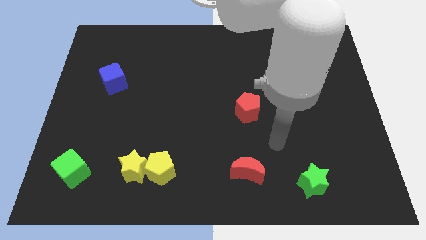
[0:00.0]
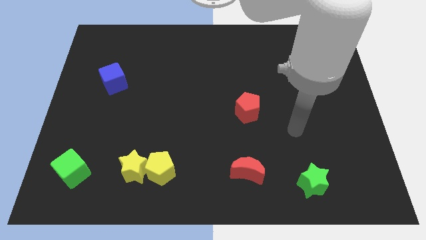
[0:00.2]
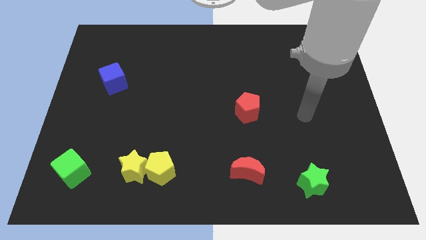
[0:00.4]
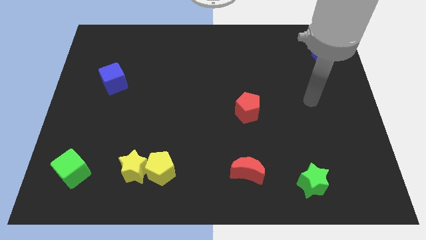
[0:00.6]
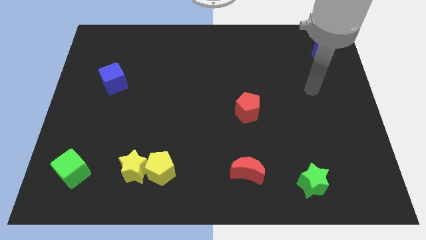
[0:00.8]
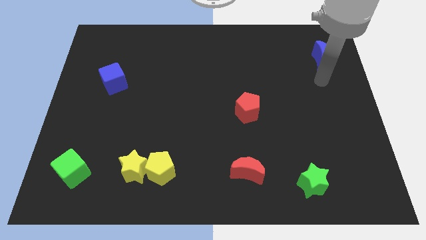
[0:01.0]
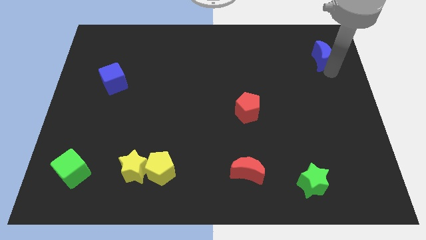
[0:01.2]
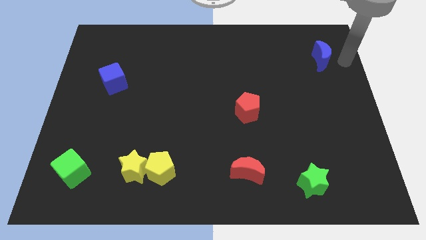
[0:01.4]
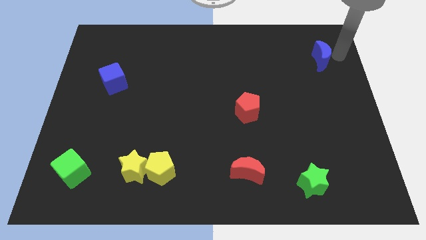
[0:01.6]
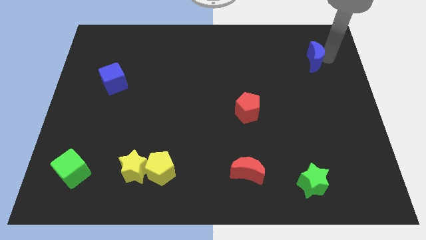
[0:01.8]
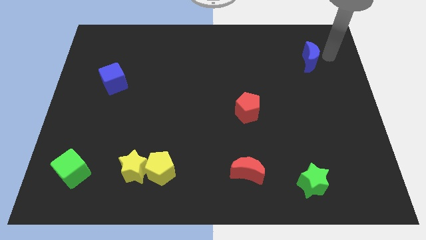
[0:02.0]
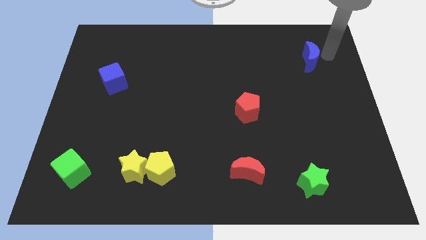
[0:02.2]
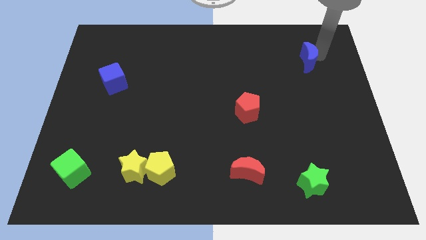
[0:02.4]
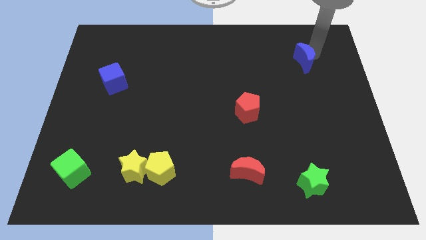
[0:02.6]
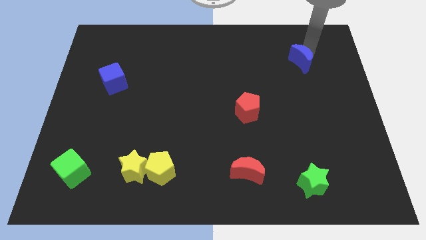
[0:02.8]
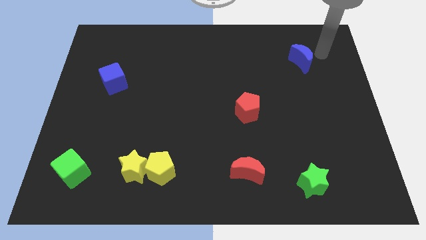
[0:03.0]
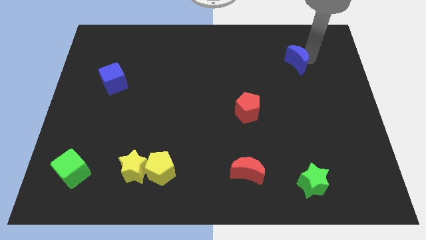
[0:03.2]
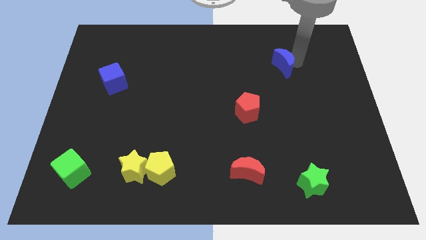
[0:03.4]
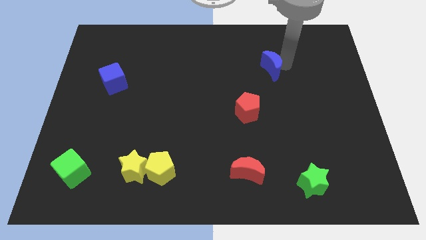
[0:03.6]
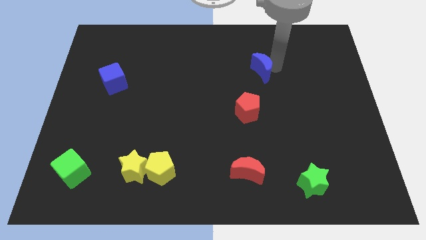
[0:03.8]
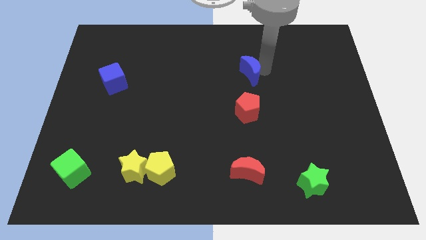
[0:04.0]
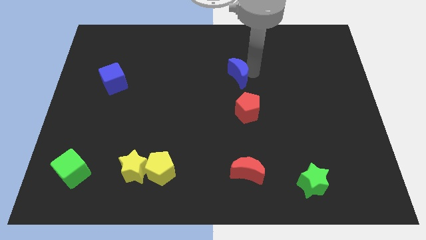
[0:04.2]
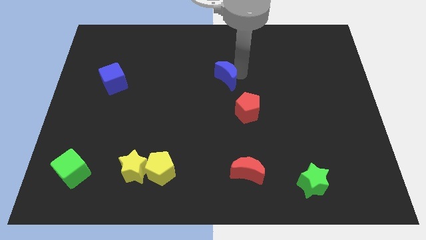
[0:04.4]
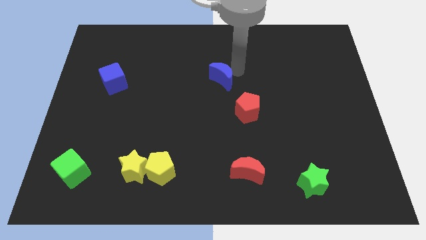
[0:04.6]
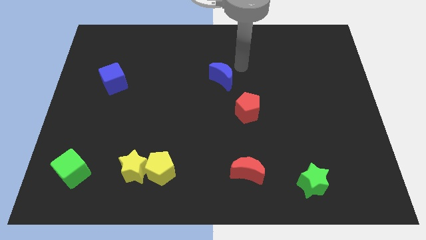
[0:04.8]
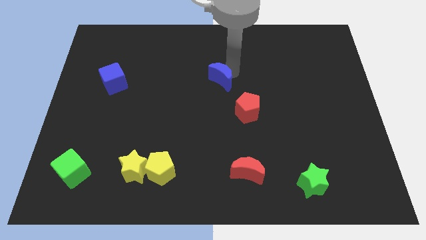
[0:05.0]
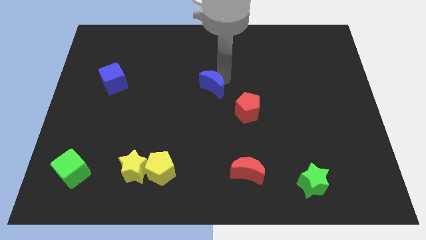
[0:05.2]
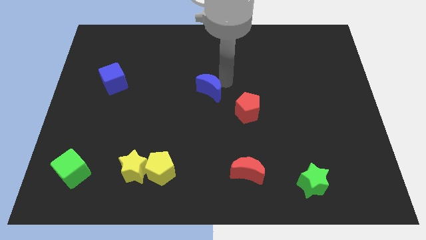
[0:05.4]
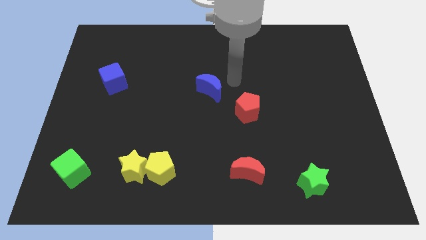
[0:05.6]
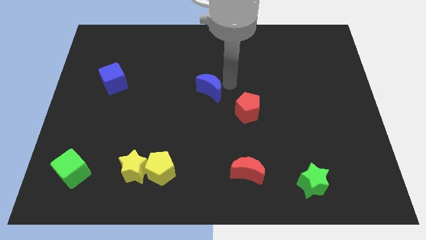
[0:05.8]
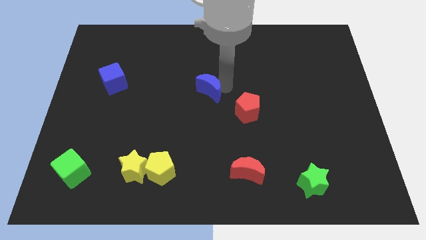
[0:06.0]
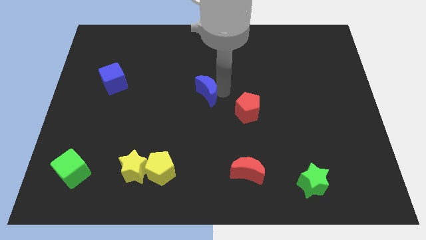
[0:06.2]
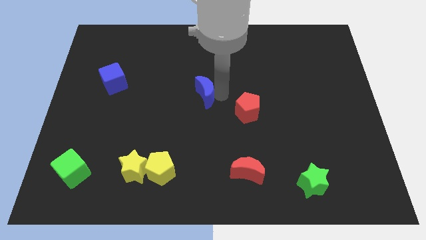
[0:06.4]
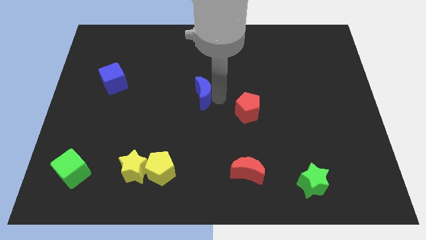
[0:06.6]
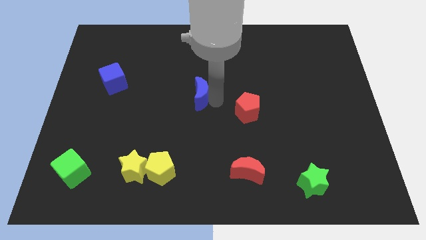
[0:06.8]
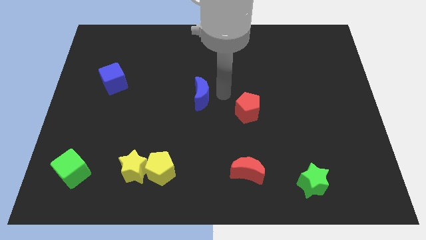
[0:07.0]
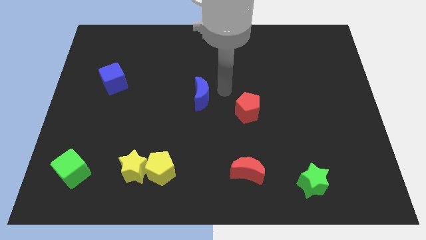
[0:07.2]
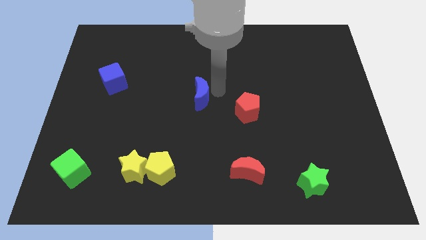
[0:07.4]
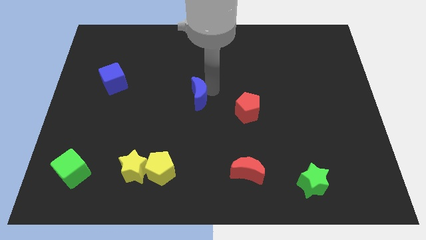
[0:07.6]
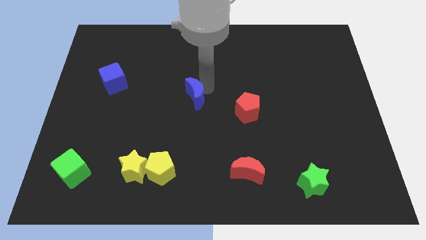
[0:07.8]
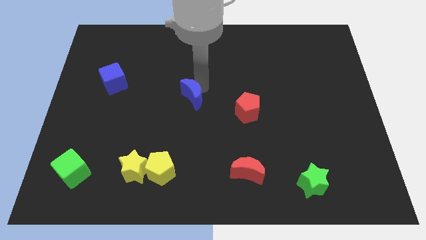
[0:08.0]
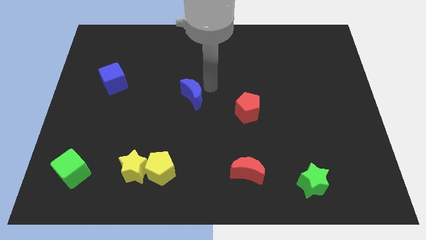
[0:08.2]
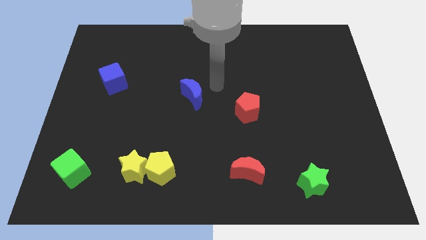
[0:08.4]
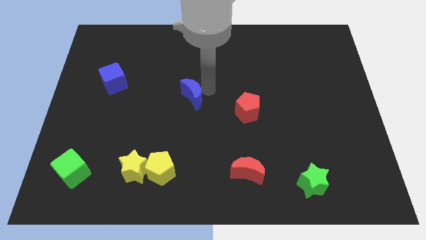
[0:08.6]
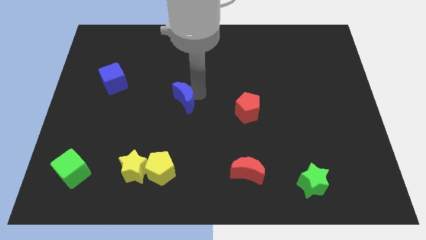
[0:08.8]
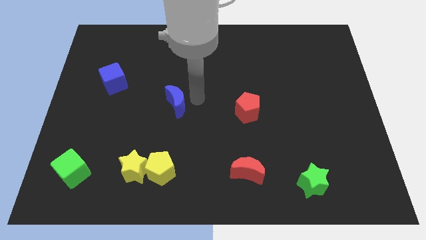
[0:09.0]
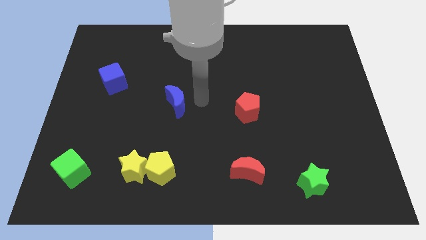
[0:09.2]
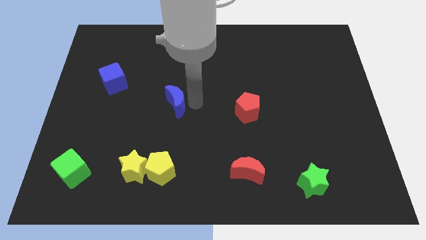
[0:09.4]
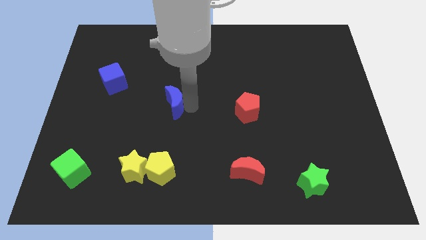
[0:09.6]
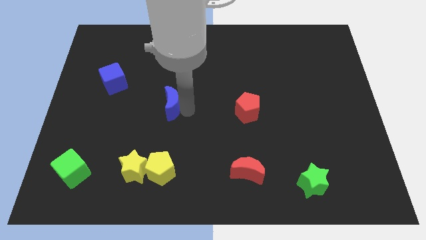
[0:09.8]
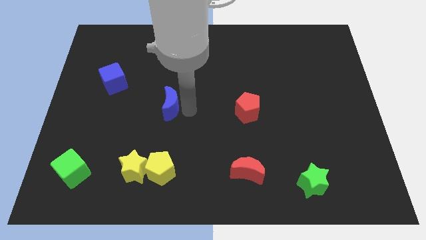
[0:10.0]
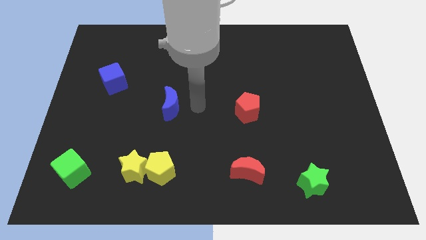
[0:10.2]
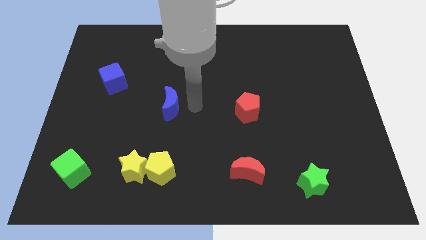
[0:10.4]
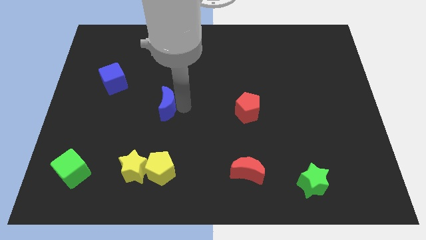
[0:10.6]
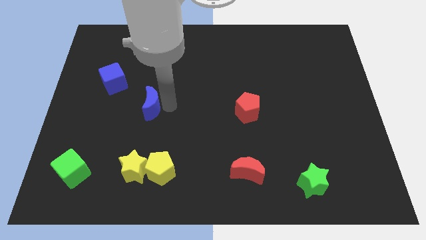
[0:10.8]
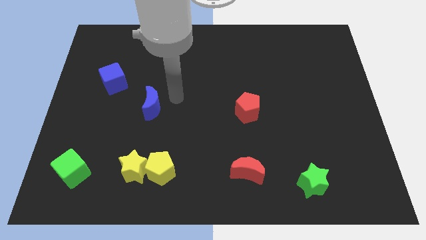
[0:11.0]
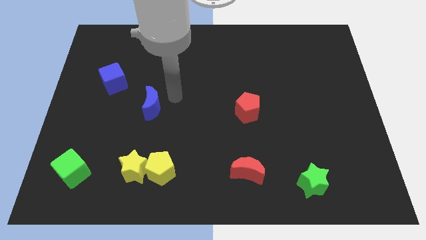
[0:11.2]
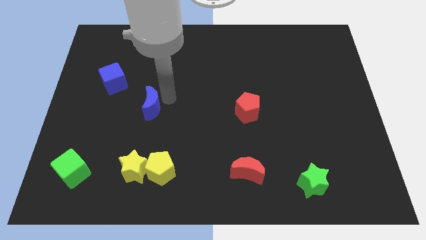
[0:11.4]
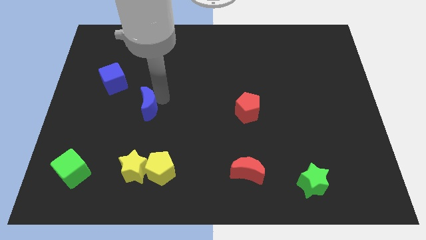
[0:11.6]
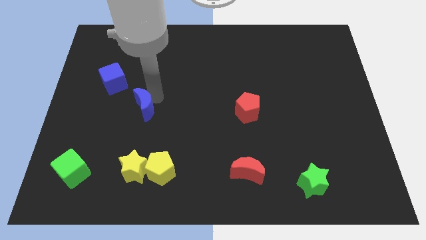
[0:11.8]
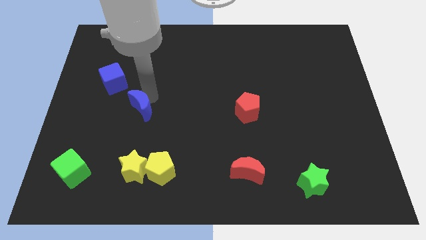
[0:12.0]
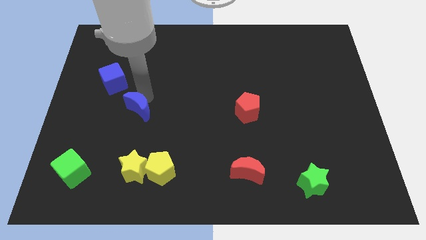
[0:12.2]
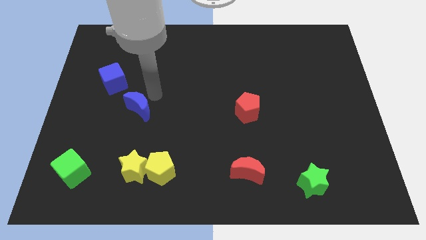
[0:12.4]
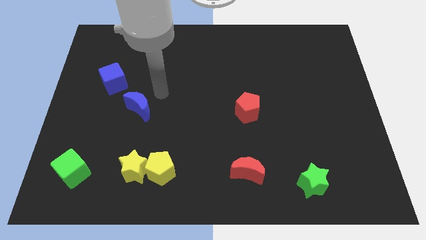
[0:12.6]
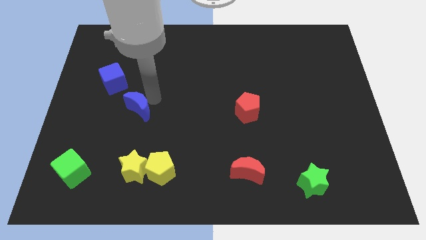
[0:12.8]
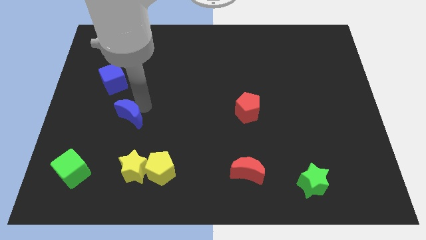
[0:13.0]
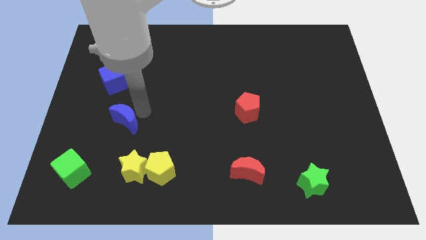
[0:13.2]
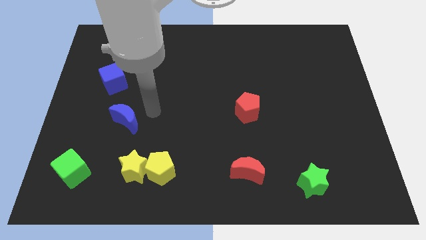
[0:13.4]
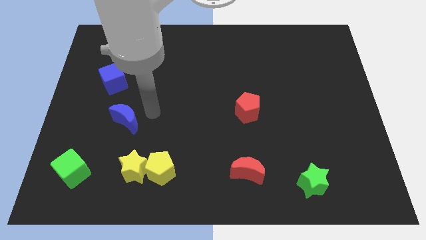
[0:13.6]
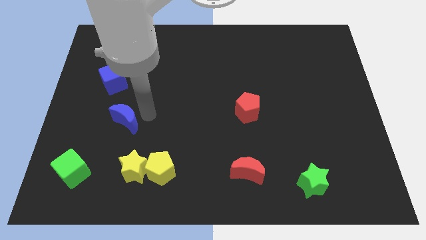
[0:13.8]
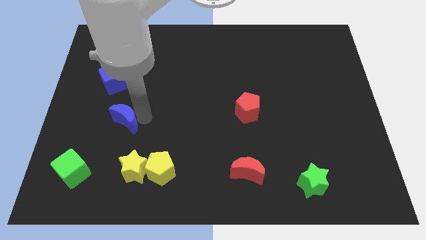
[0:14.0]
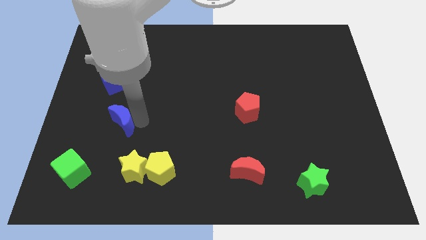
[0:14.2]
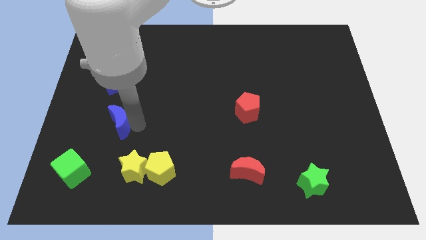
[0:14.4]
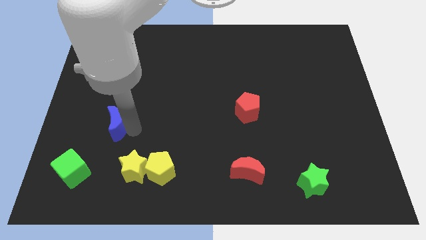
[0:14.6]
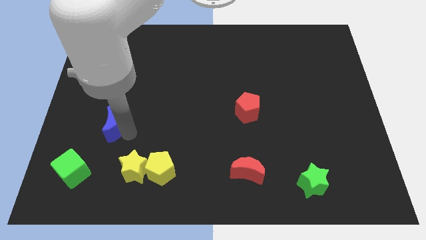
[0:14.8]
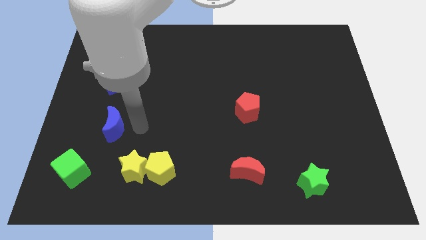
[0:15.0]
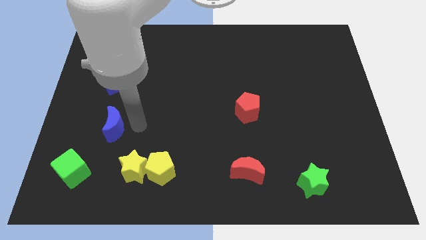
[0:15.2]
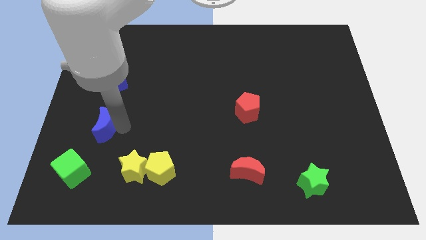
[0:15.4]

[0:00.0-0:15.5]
push the blue moon to the top of the green cube
